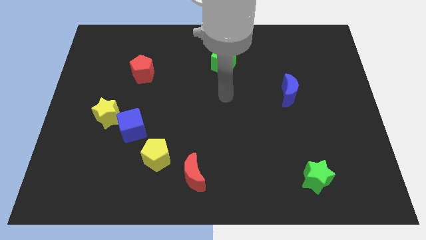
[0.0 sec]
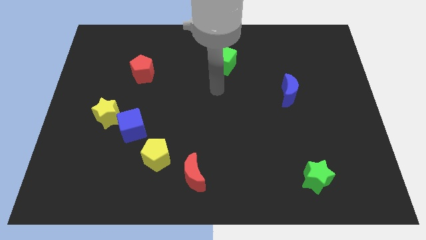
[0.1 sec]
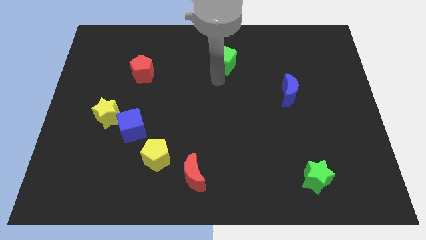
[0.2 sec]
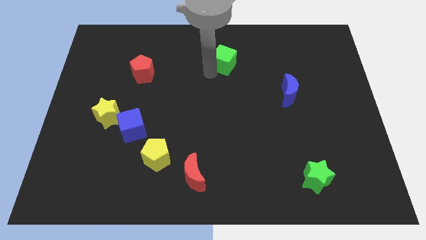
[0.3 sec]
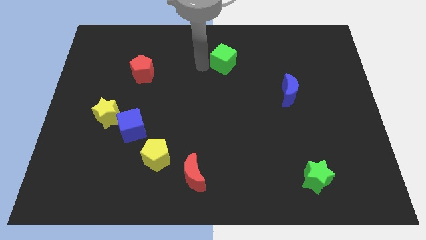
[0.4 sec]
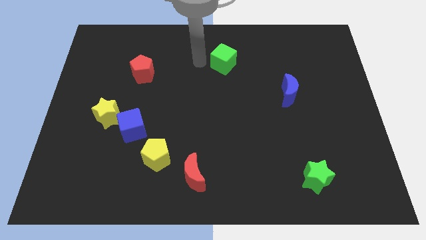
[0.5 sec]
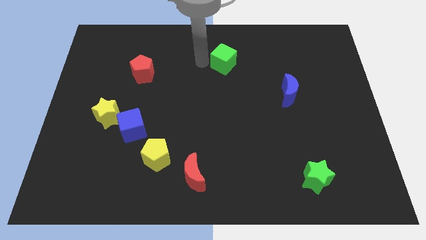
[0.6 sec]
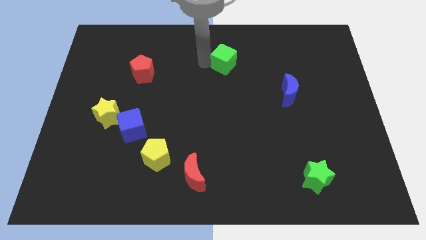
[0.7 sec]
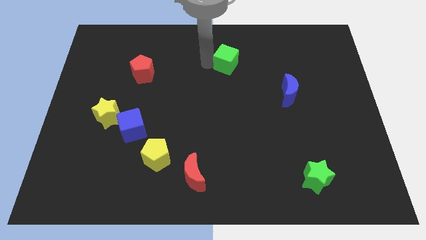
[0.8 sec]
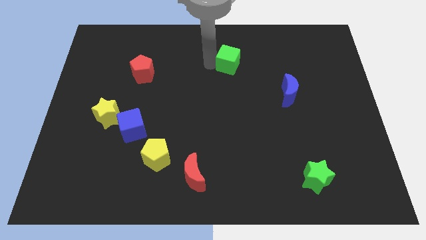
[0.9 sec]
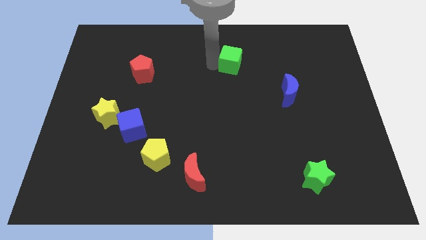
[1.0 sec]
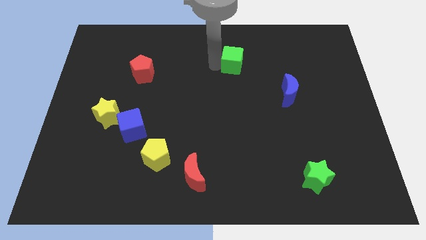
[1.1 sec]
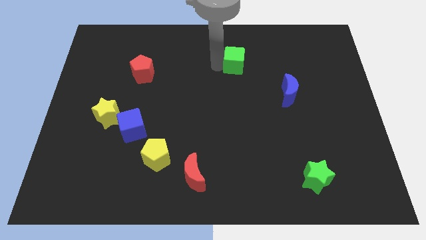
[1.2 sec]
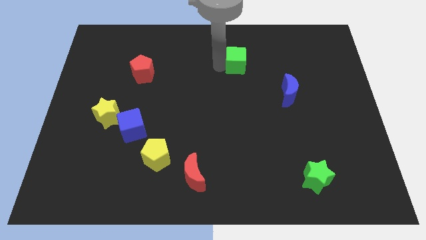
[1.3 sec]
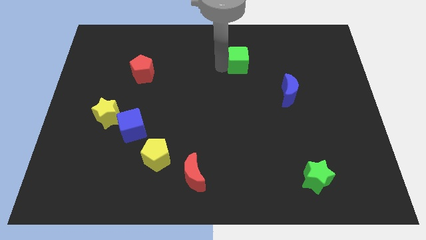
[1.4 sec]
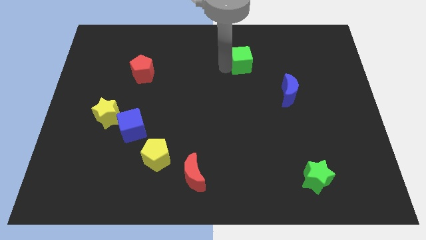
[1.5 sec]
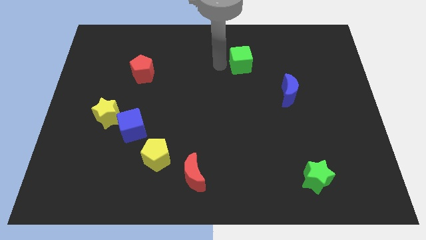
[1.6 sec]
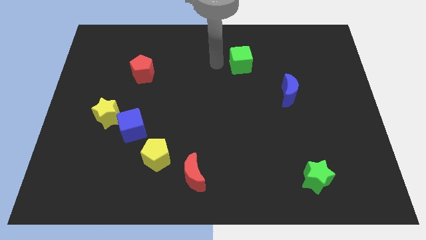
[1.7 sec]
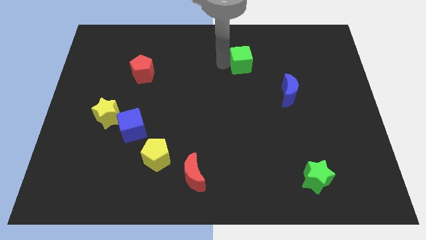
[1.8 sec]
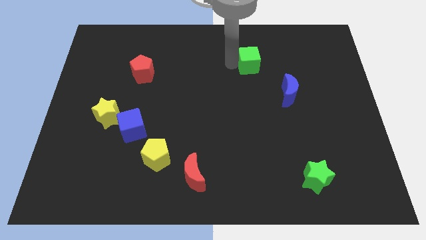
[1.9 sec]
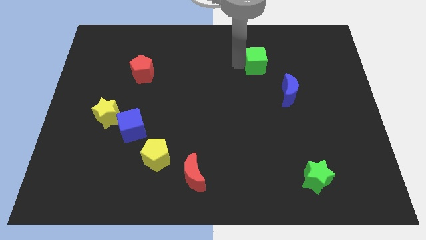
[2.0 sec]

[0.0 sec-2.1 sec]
move the green cube a bit right

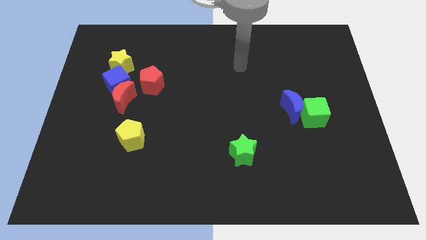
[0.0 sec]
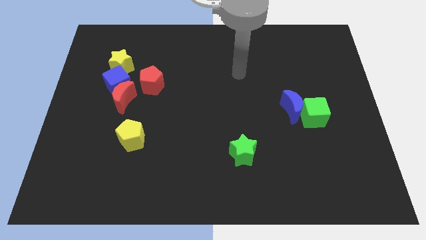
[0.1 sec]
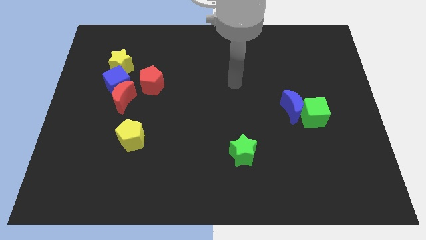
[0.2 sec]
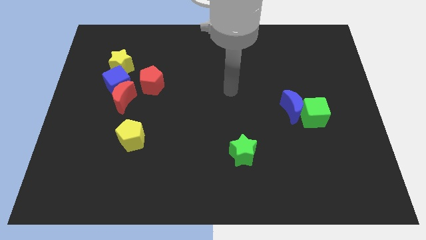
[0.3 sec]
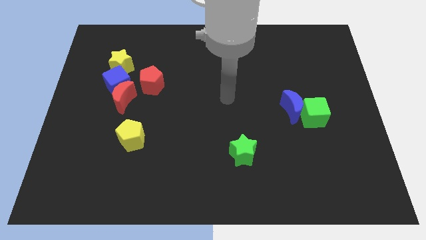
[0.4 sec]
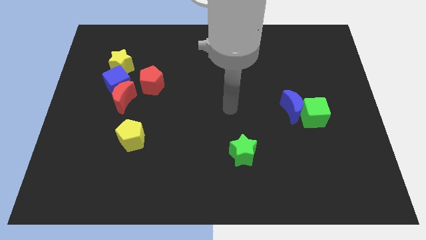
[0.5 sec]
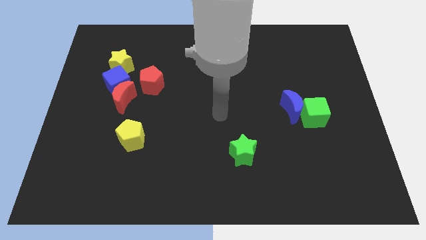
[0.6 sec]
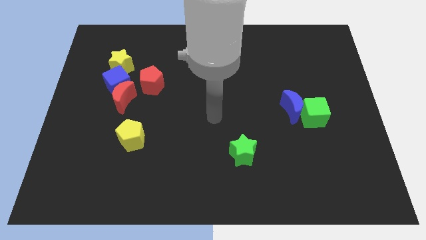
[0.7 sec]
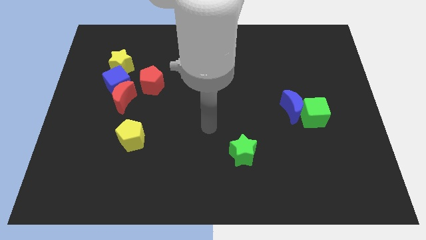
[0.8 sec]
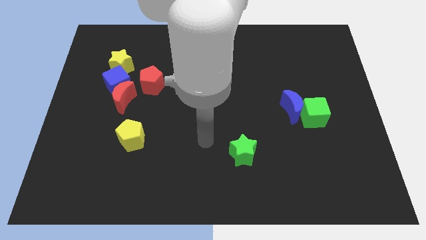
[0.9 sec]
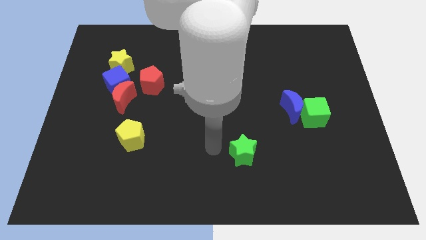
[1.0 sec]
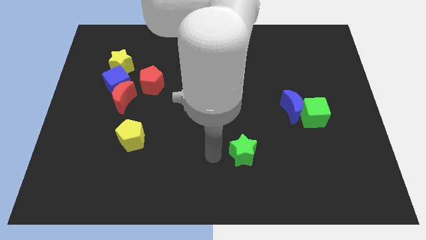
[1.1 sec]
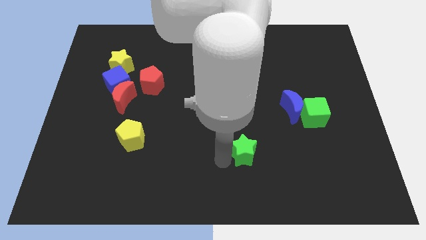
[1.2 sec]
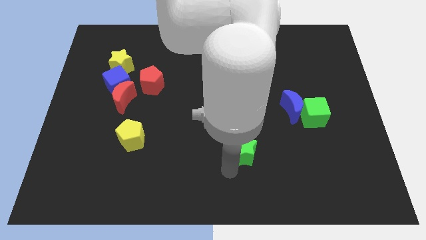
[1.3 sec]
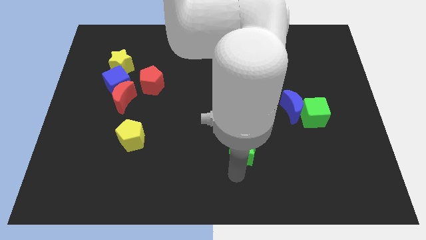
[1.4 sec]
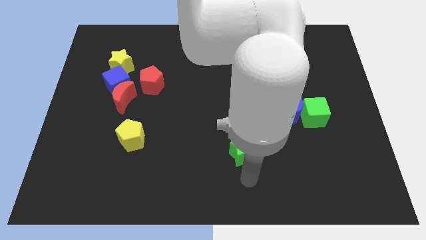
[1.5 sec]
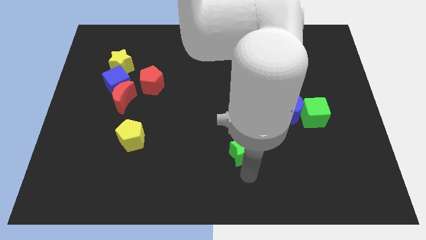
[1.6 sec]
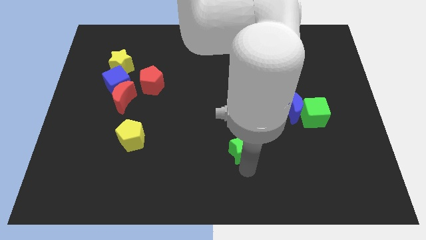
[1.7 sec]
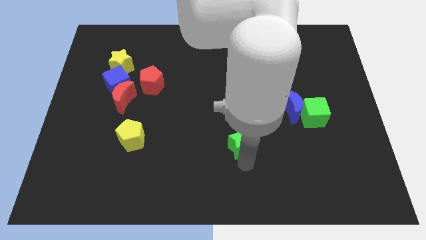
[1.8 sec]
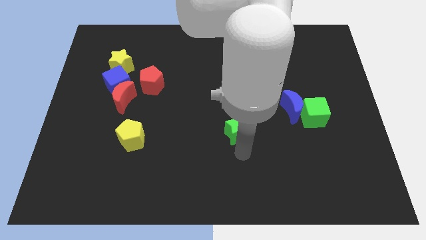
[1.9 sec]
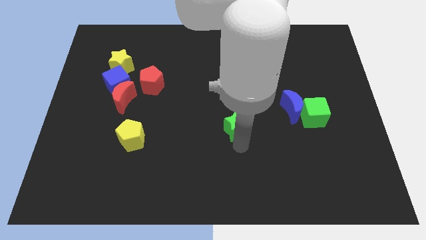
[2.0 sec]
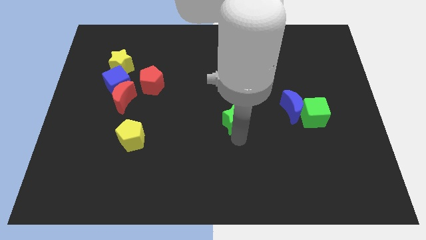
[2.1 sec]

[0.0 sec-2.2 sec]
slightly push the green star up

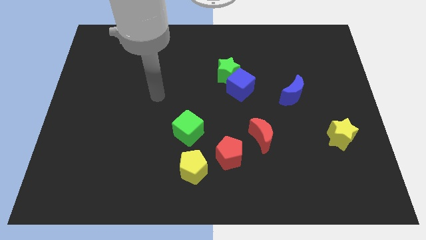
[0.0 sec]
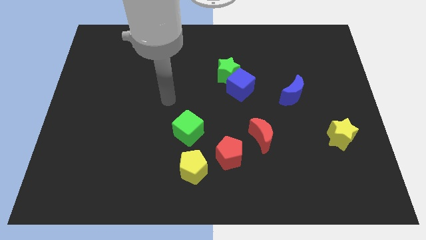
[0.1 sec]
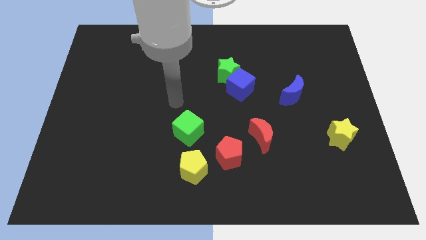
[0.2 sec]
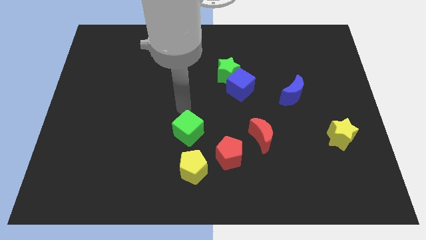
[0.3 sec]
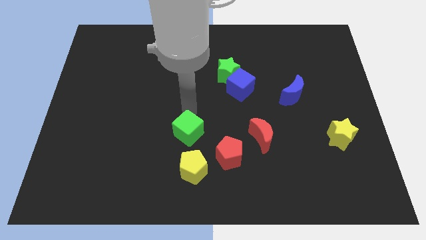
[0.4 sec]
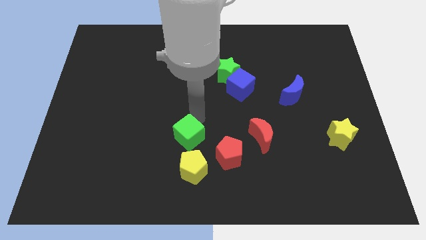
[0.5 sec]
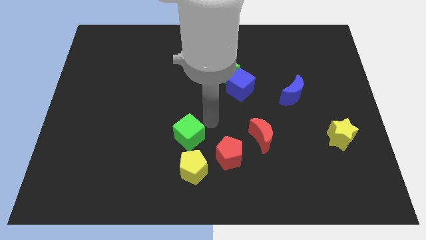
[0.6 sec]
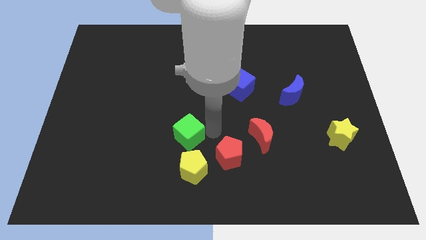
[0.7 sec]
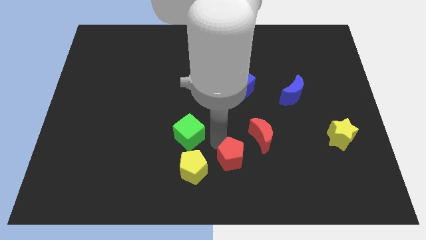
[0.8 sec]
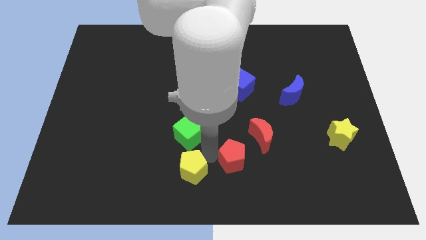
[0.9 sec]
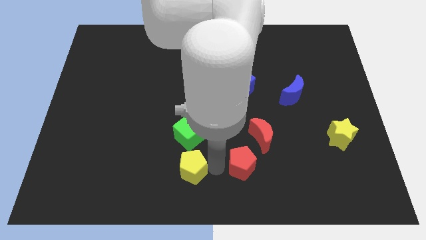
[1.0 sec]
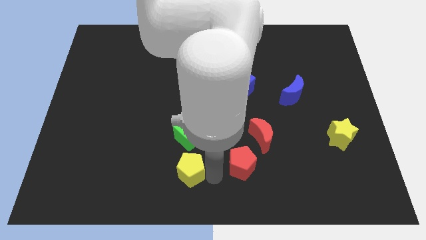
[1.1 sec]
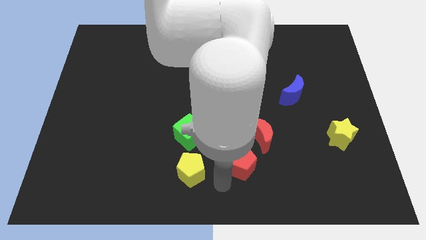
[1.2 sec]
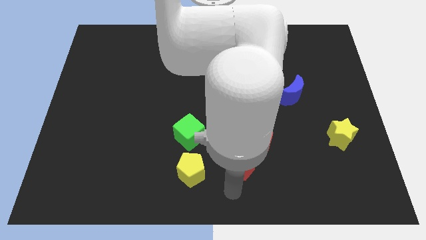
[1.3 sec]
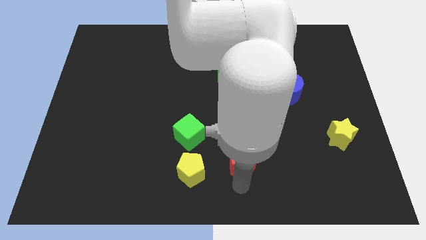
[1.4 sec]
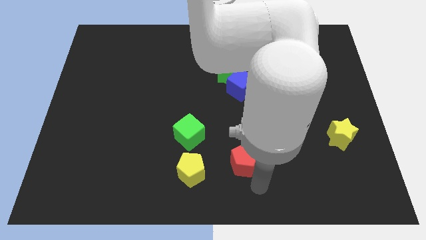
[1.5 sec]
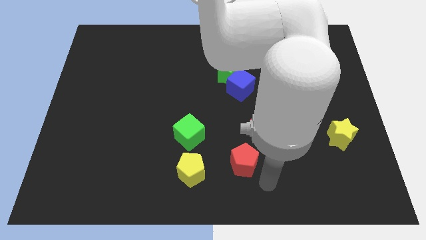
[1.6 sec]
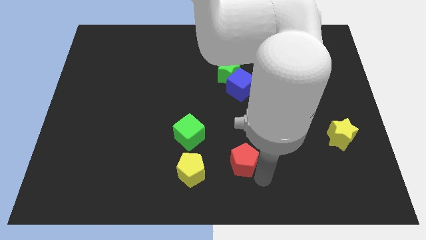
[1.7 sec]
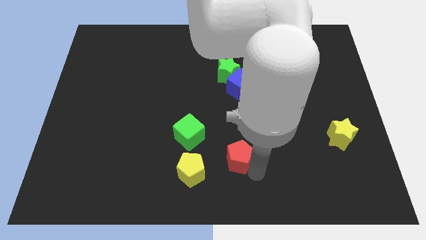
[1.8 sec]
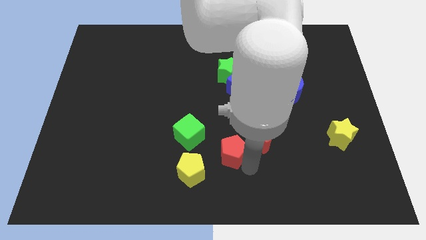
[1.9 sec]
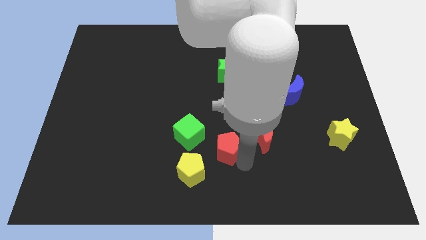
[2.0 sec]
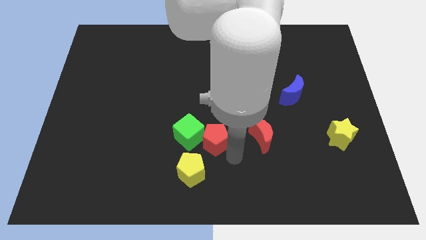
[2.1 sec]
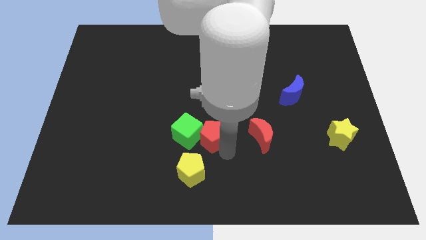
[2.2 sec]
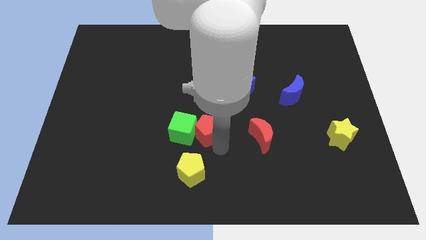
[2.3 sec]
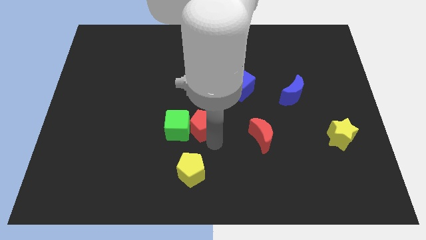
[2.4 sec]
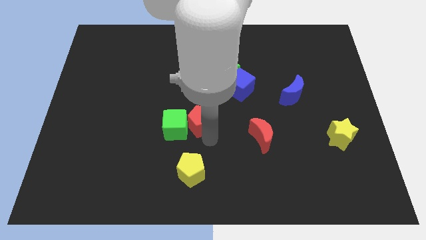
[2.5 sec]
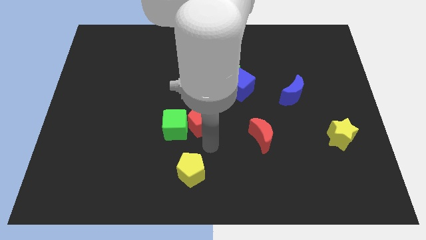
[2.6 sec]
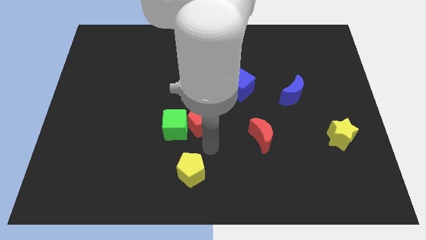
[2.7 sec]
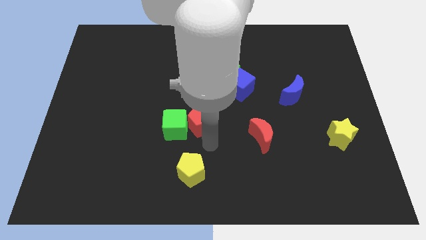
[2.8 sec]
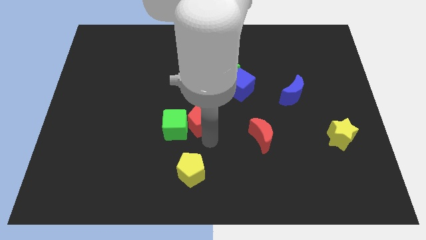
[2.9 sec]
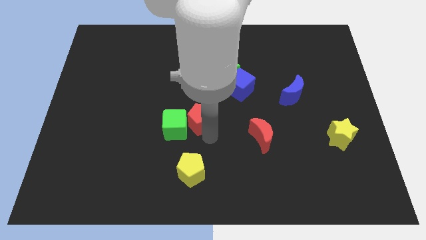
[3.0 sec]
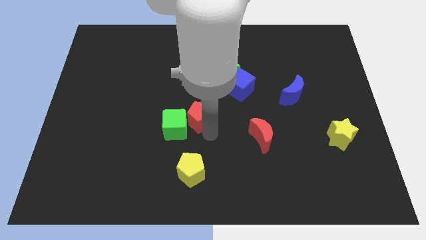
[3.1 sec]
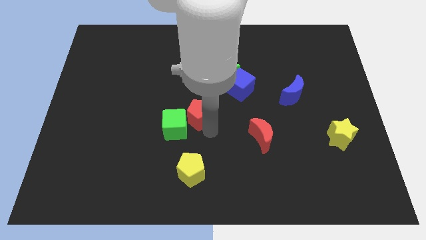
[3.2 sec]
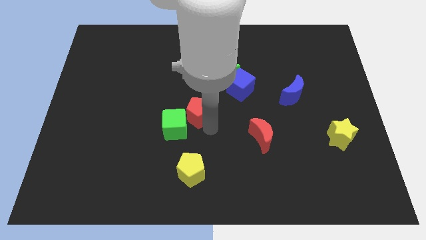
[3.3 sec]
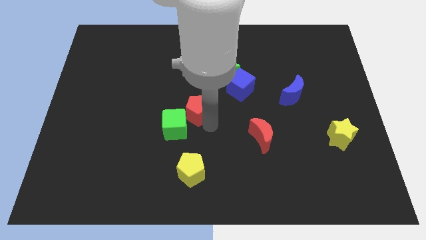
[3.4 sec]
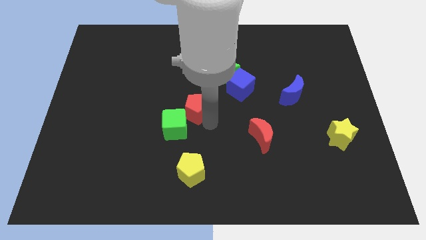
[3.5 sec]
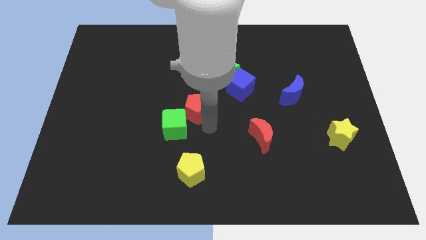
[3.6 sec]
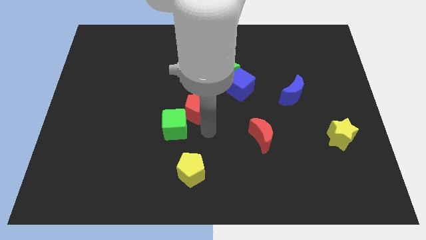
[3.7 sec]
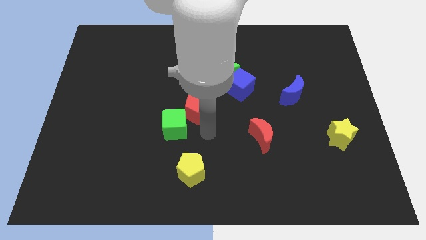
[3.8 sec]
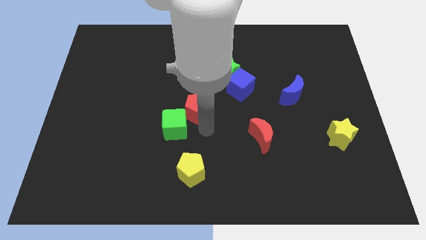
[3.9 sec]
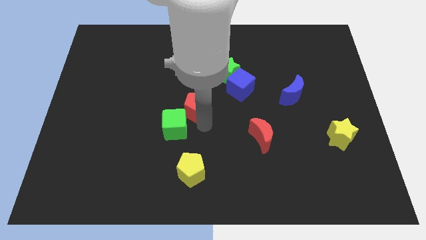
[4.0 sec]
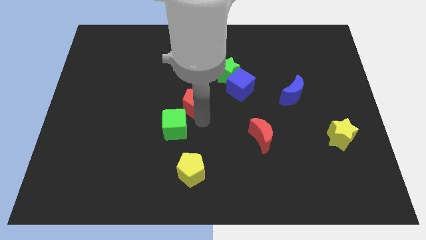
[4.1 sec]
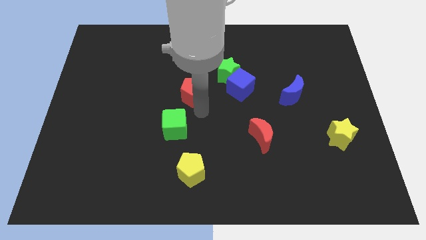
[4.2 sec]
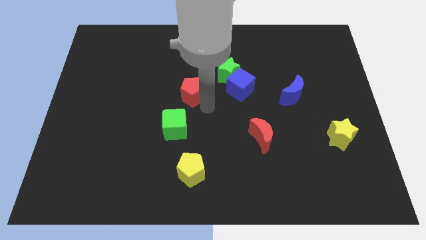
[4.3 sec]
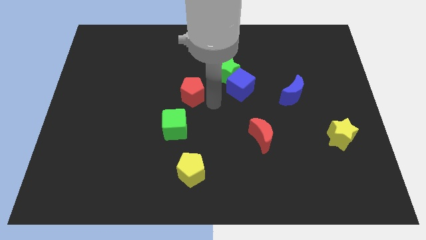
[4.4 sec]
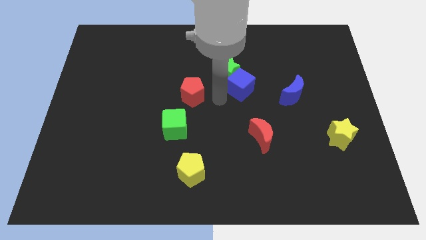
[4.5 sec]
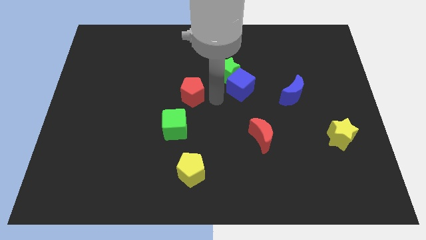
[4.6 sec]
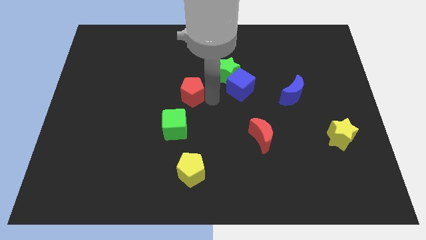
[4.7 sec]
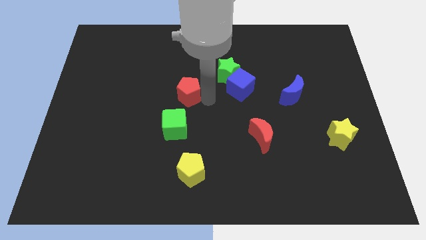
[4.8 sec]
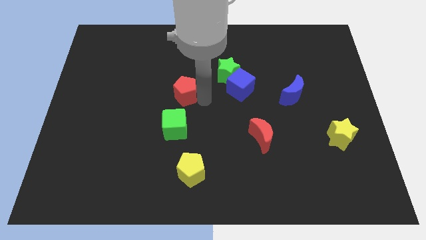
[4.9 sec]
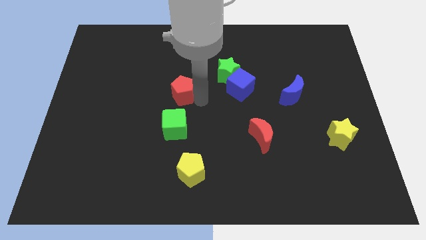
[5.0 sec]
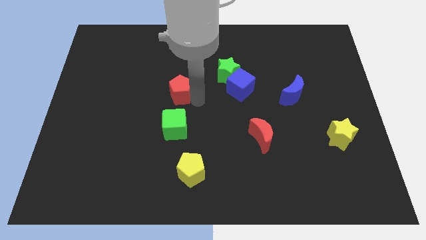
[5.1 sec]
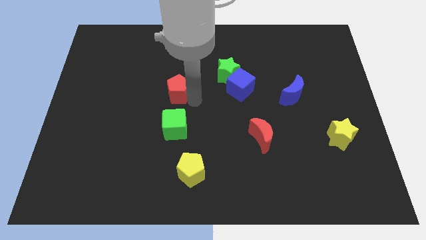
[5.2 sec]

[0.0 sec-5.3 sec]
slide the red pentagon up and then left
